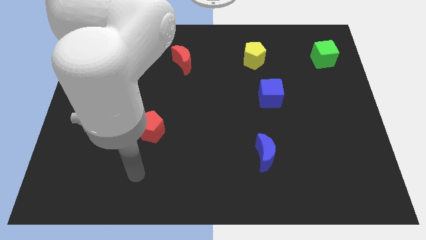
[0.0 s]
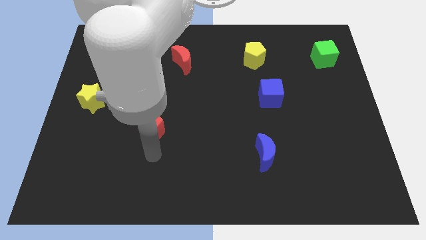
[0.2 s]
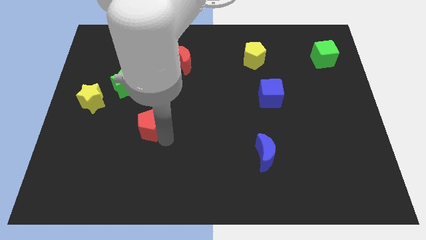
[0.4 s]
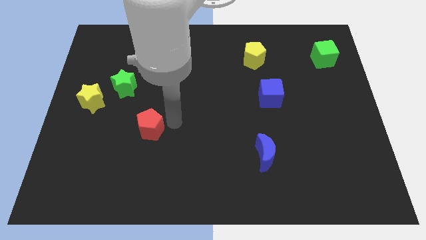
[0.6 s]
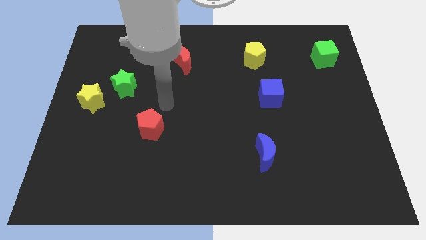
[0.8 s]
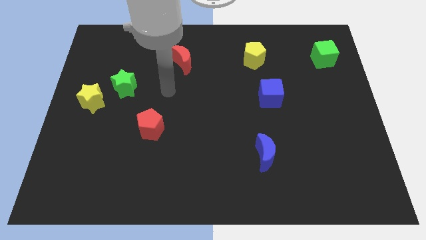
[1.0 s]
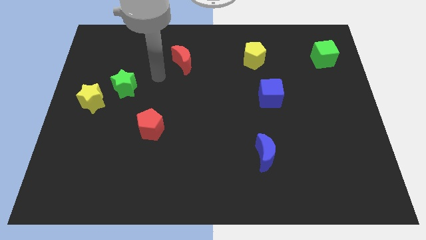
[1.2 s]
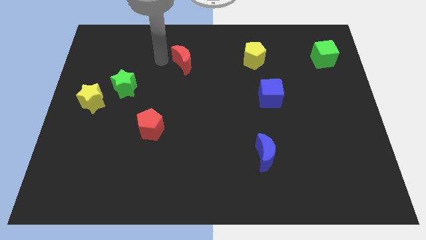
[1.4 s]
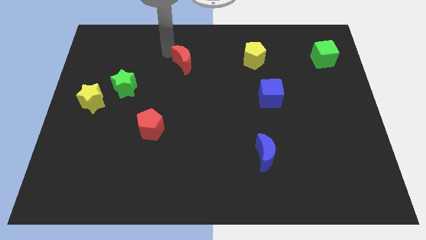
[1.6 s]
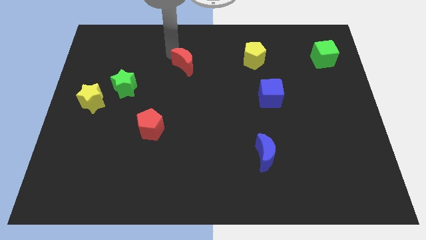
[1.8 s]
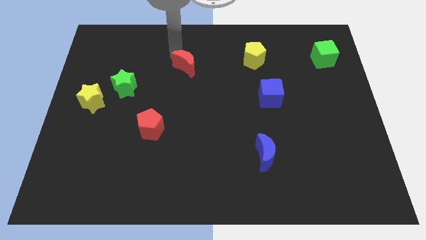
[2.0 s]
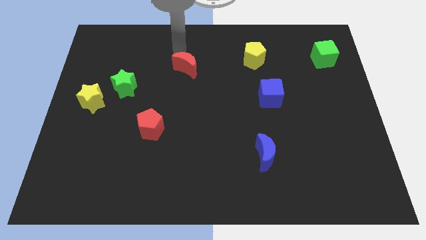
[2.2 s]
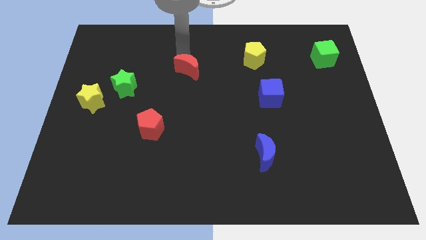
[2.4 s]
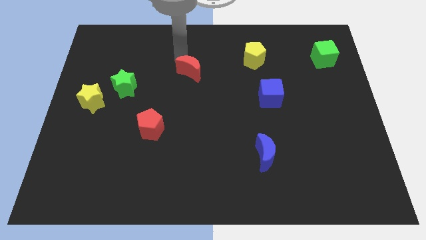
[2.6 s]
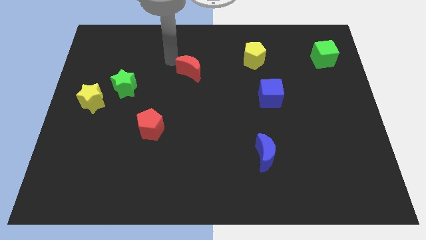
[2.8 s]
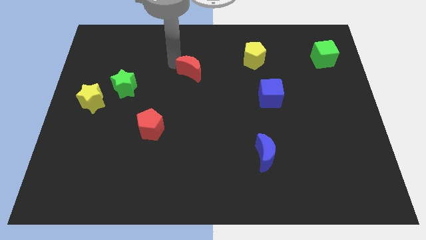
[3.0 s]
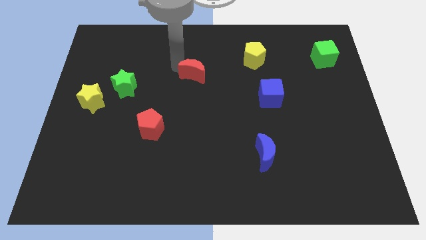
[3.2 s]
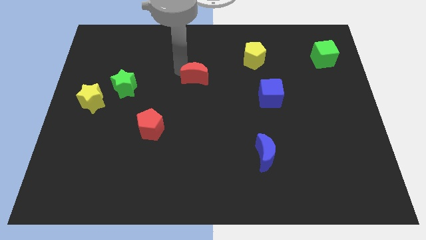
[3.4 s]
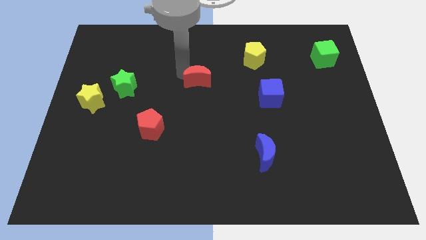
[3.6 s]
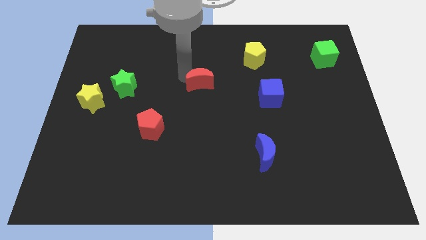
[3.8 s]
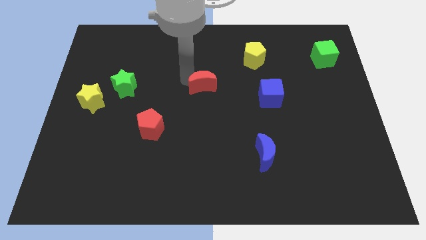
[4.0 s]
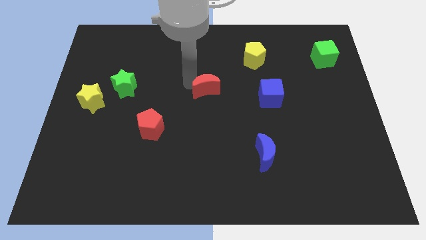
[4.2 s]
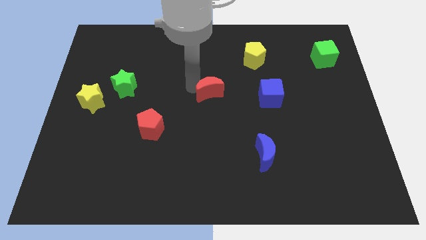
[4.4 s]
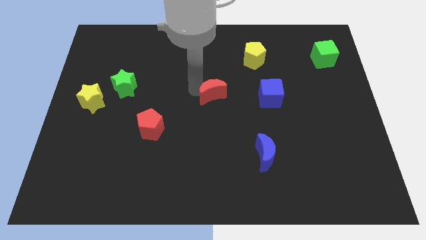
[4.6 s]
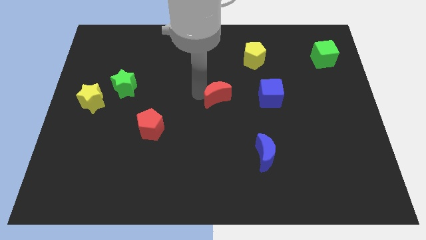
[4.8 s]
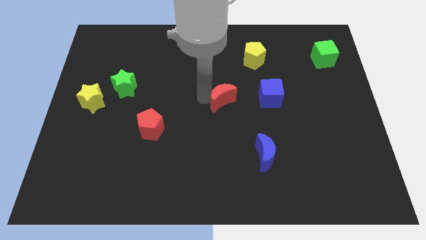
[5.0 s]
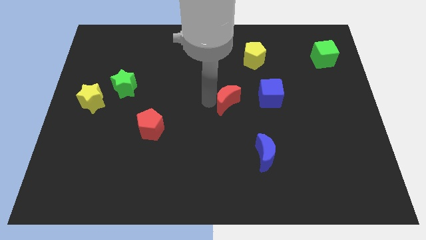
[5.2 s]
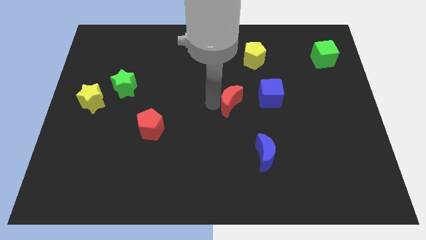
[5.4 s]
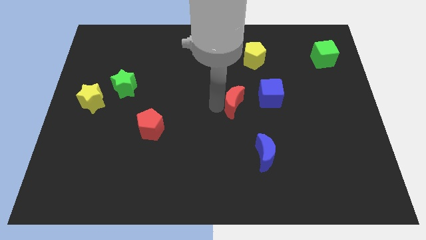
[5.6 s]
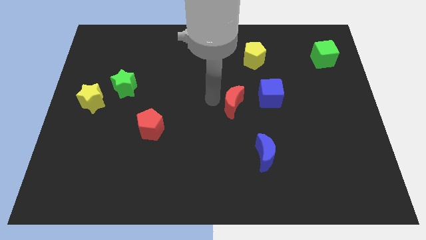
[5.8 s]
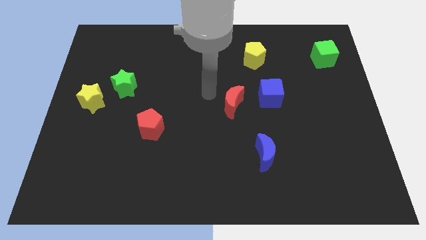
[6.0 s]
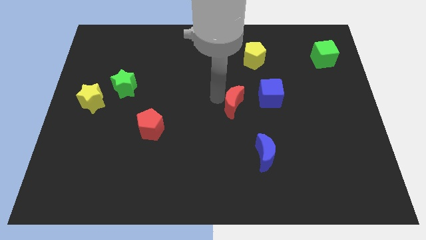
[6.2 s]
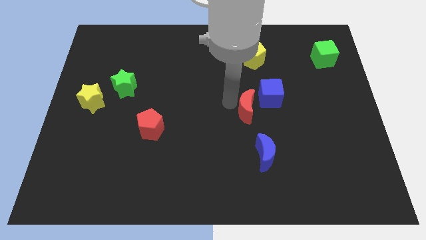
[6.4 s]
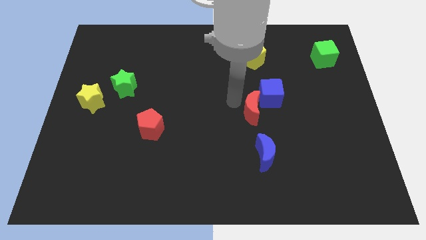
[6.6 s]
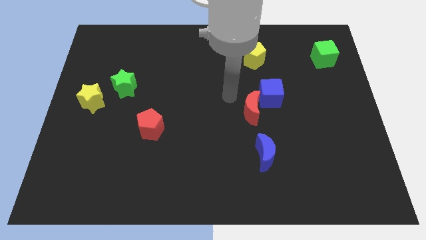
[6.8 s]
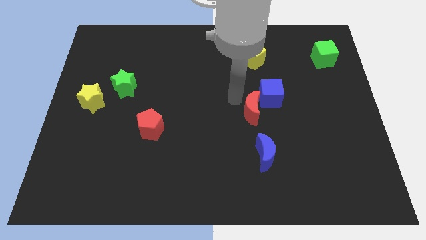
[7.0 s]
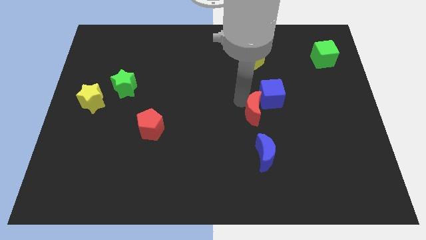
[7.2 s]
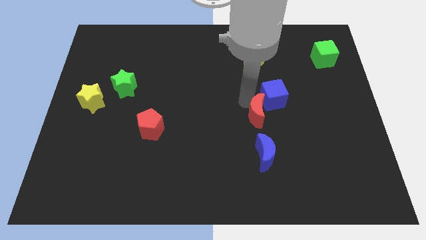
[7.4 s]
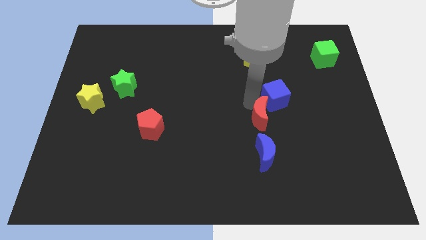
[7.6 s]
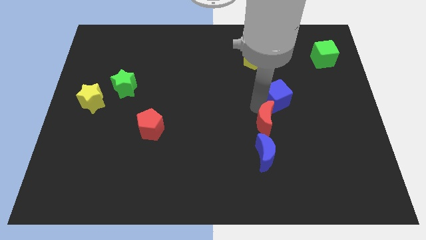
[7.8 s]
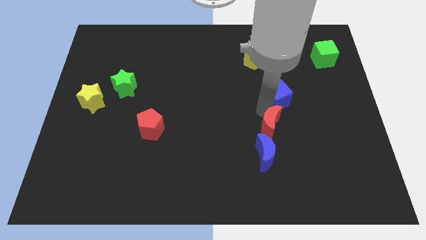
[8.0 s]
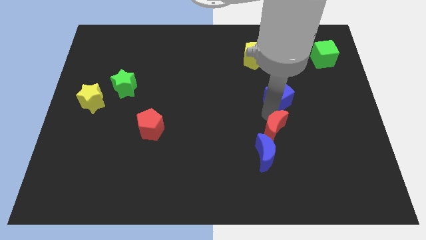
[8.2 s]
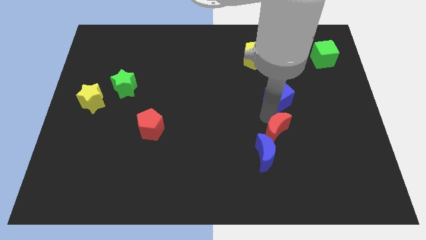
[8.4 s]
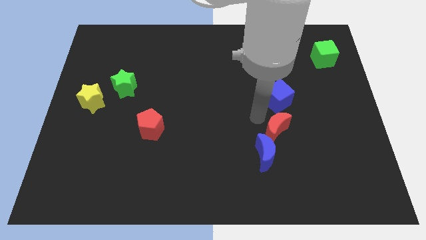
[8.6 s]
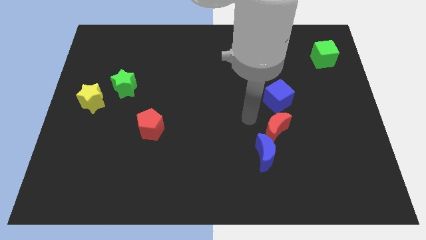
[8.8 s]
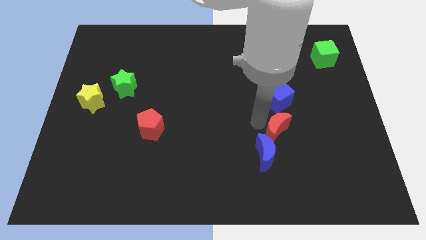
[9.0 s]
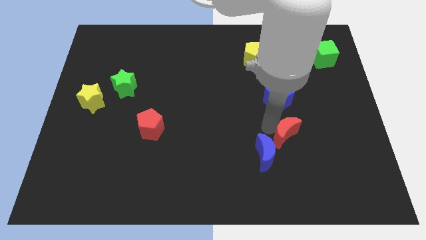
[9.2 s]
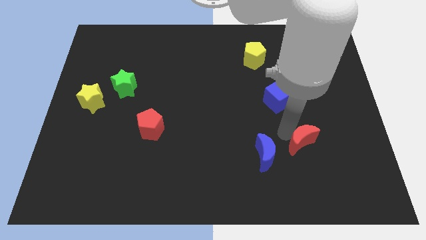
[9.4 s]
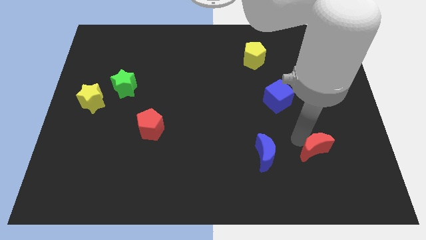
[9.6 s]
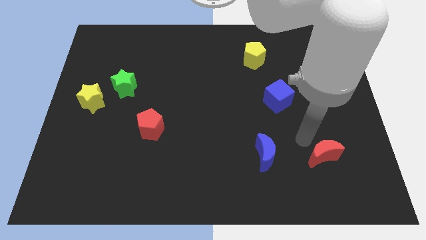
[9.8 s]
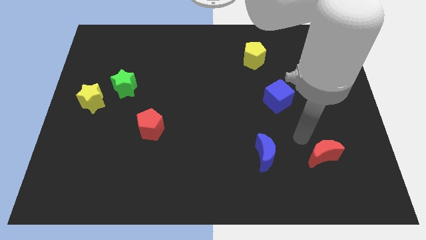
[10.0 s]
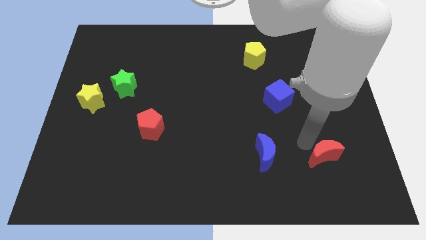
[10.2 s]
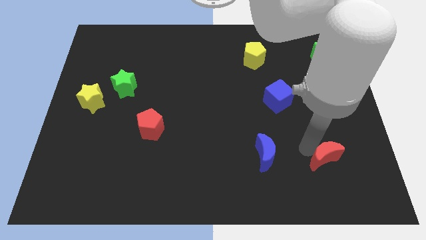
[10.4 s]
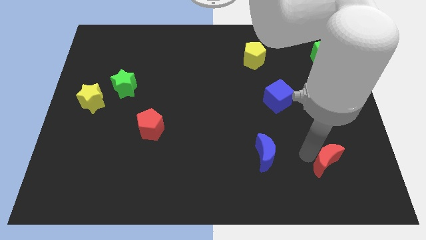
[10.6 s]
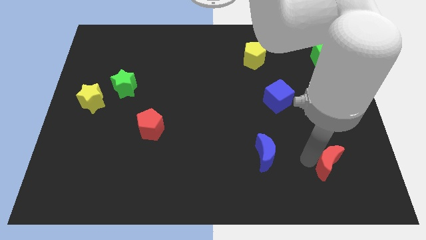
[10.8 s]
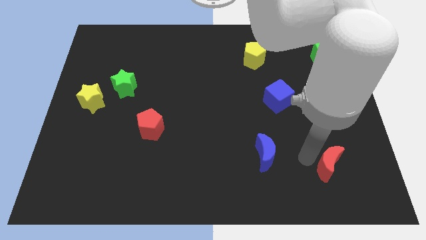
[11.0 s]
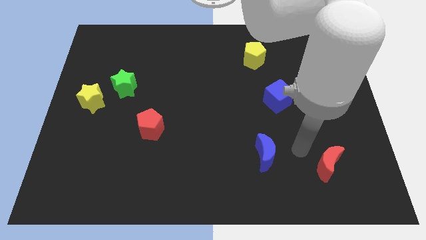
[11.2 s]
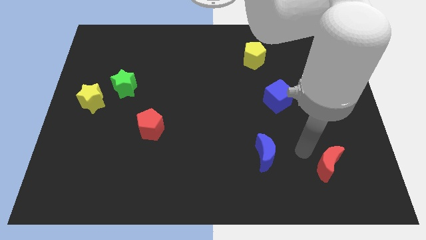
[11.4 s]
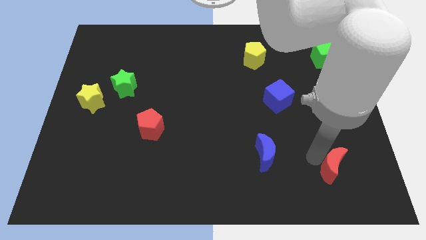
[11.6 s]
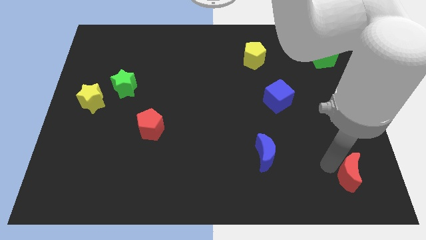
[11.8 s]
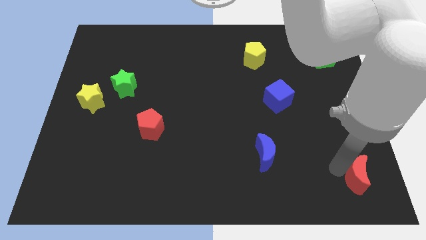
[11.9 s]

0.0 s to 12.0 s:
slide the red moon to the bottom right of the board

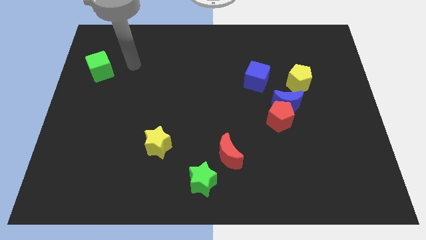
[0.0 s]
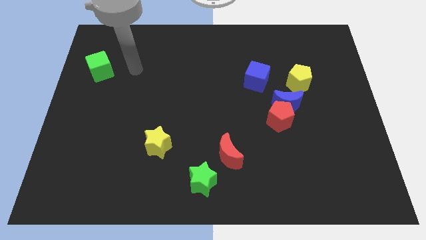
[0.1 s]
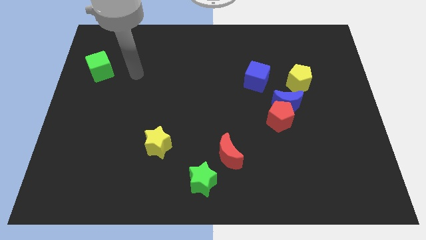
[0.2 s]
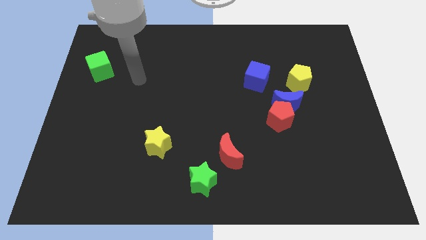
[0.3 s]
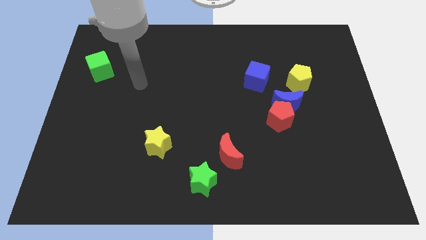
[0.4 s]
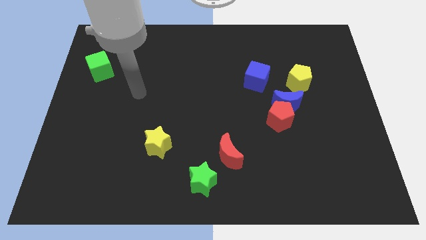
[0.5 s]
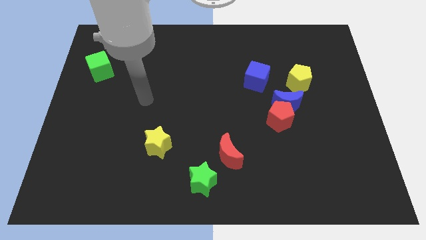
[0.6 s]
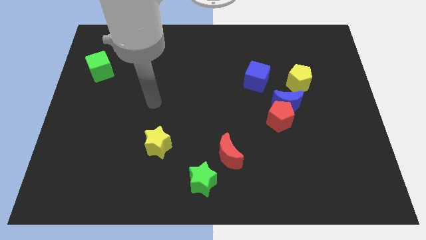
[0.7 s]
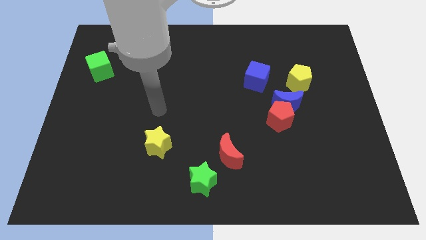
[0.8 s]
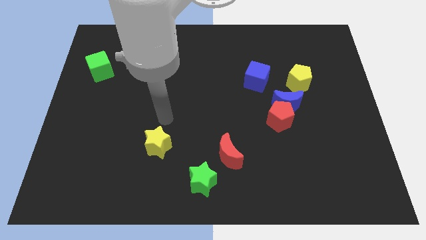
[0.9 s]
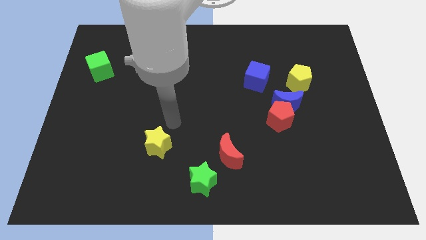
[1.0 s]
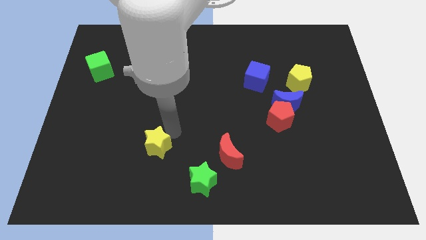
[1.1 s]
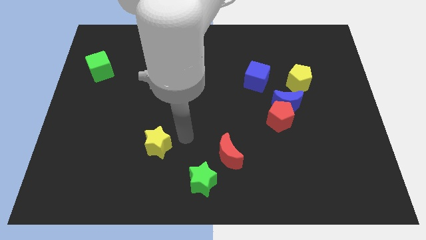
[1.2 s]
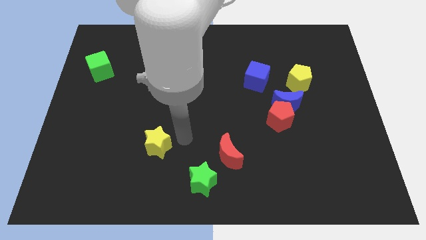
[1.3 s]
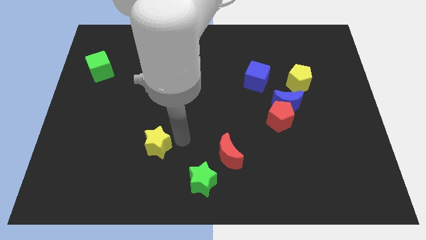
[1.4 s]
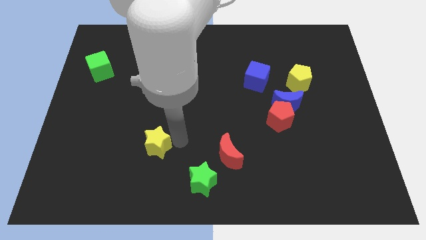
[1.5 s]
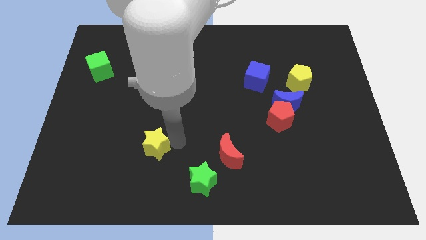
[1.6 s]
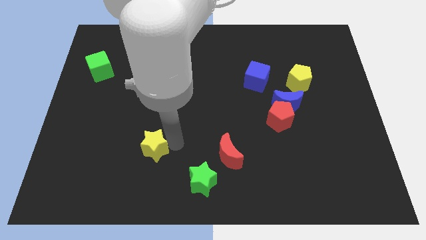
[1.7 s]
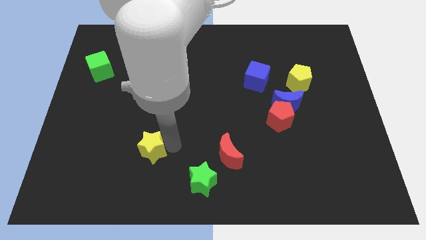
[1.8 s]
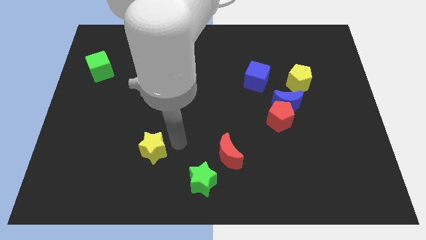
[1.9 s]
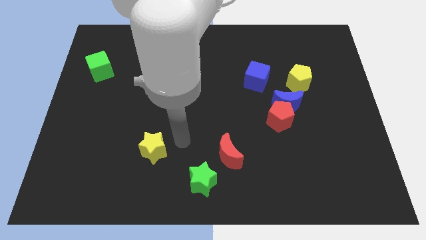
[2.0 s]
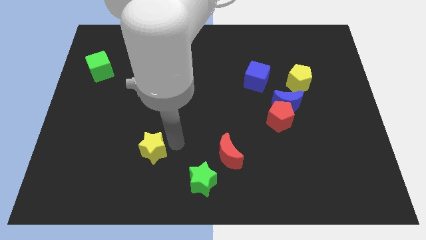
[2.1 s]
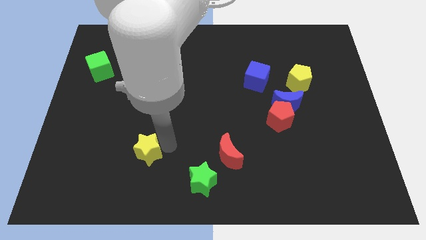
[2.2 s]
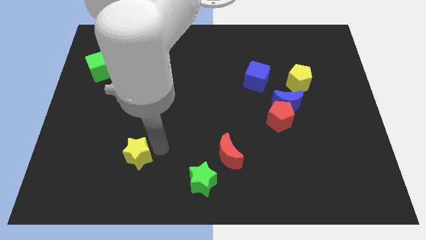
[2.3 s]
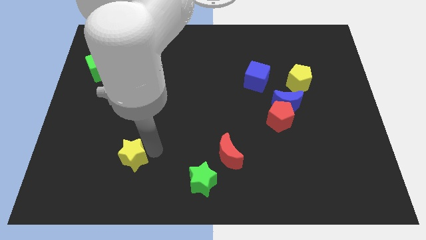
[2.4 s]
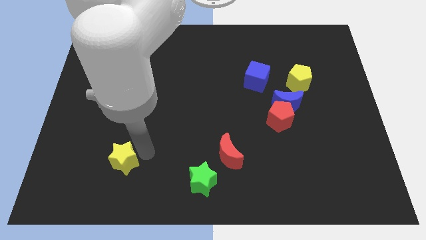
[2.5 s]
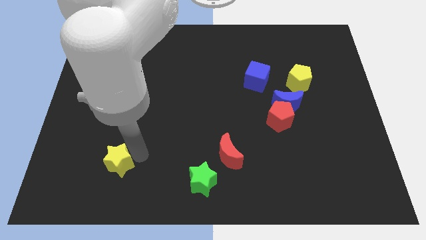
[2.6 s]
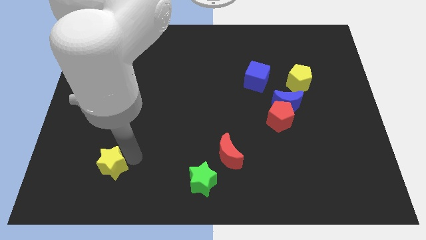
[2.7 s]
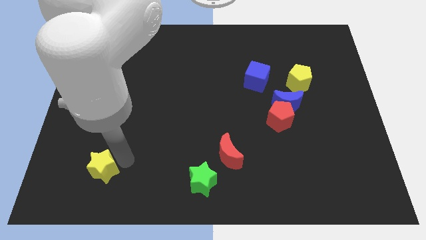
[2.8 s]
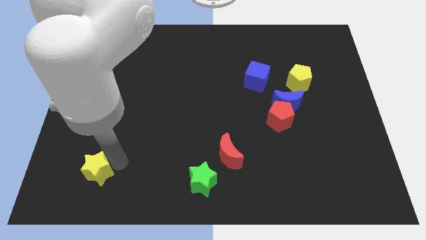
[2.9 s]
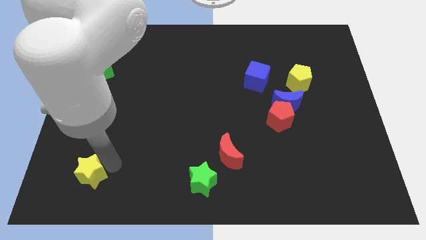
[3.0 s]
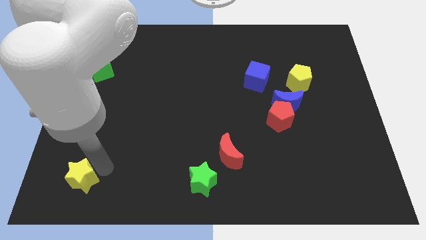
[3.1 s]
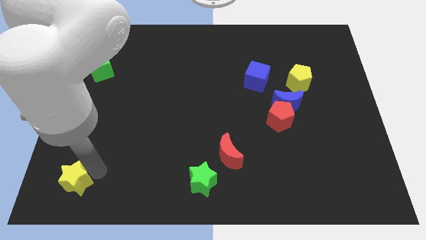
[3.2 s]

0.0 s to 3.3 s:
put the yellow star to the bottom left
